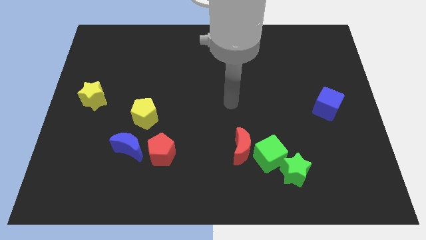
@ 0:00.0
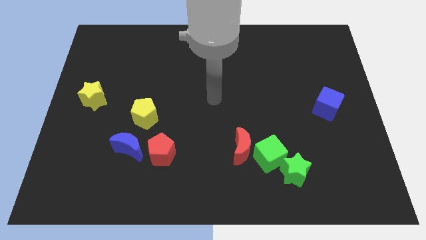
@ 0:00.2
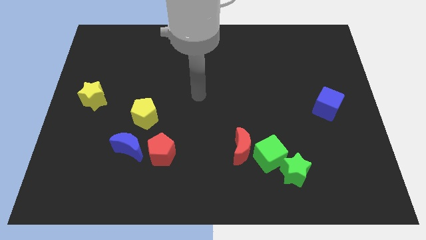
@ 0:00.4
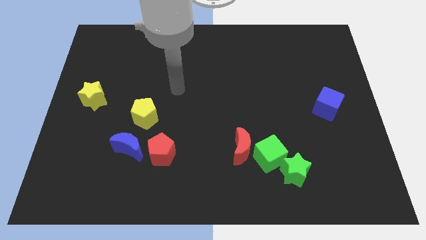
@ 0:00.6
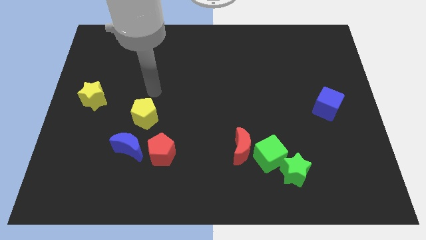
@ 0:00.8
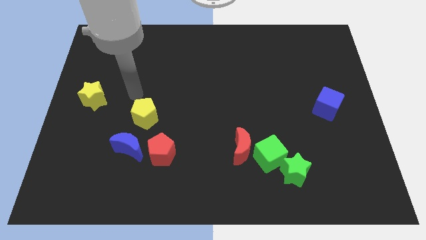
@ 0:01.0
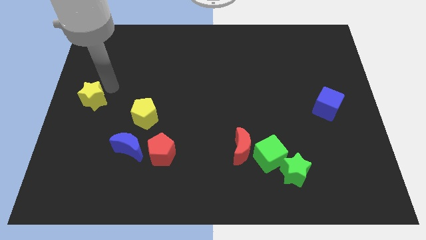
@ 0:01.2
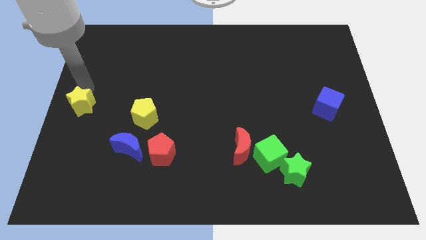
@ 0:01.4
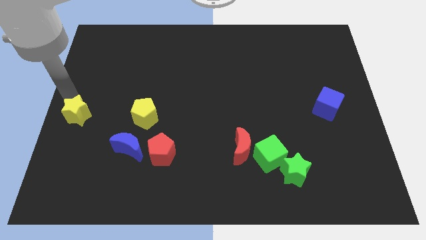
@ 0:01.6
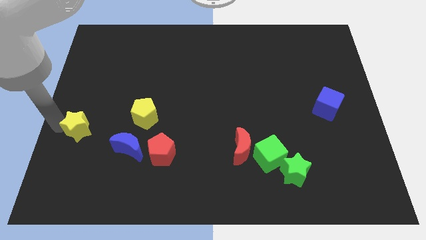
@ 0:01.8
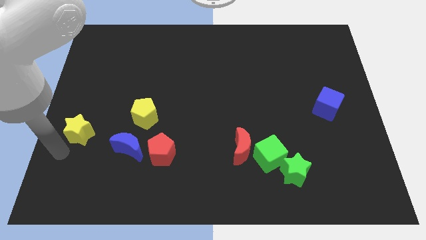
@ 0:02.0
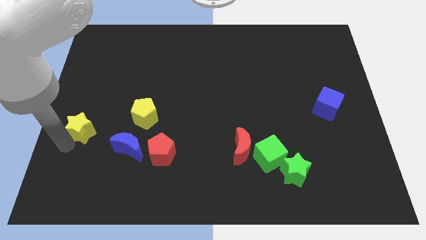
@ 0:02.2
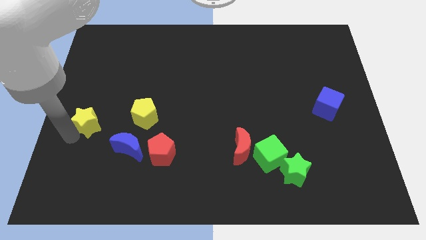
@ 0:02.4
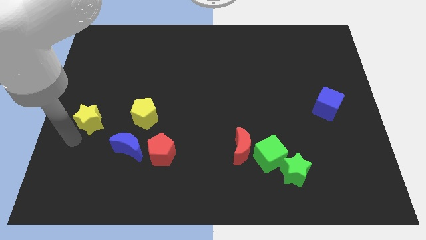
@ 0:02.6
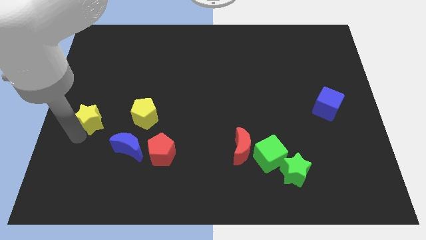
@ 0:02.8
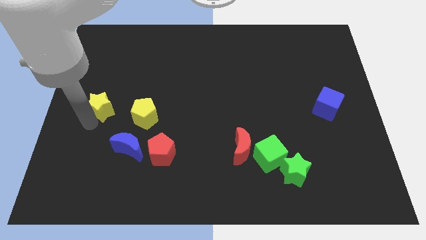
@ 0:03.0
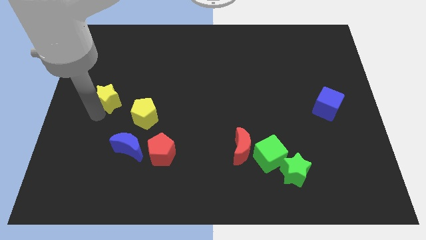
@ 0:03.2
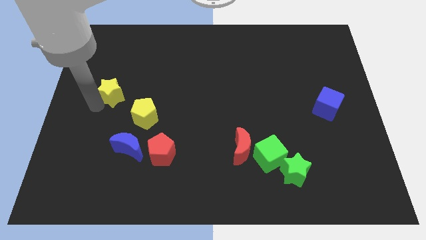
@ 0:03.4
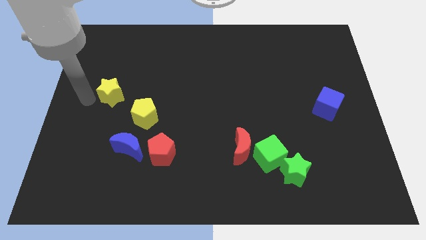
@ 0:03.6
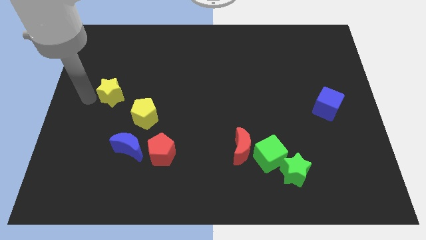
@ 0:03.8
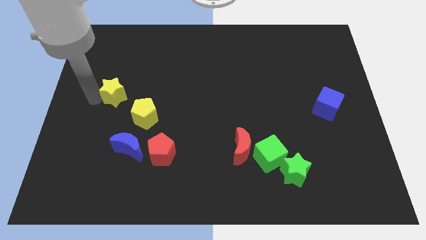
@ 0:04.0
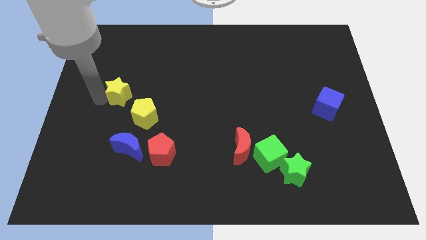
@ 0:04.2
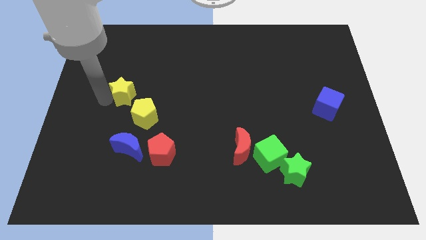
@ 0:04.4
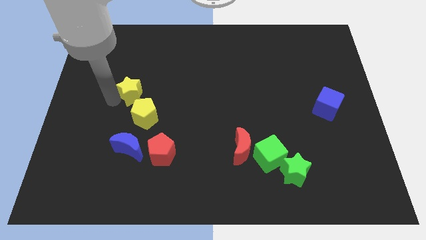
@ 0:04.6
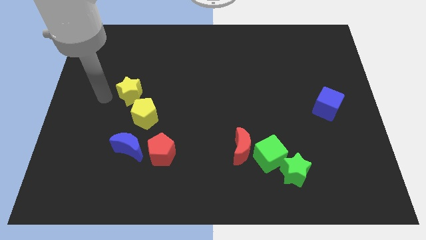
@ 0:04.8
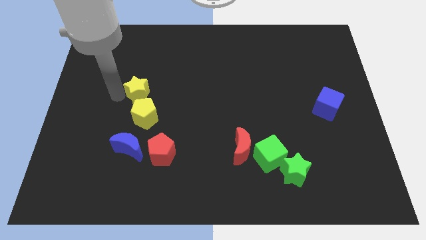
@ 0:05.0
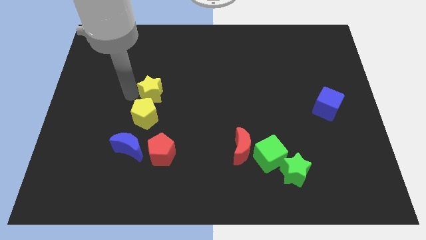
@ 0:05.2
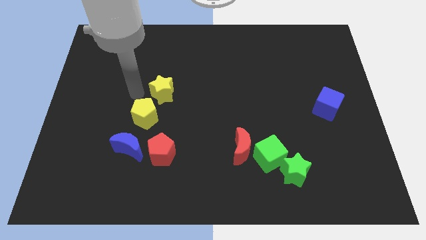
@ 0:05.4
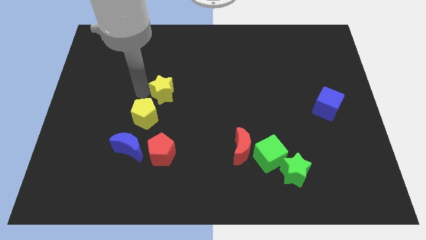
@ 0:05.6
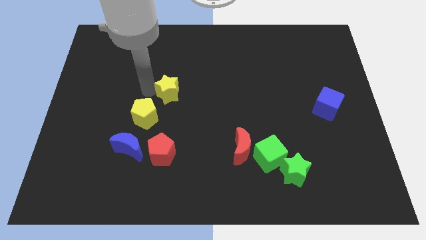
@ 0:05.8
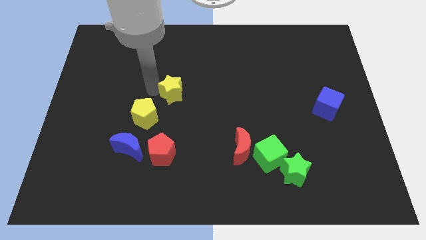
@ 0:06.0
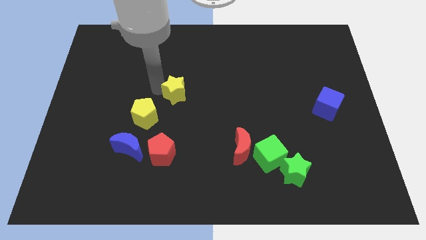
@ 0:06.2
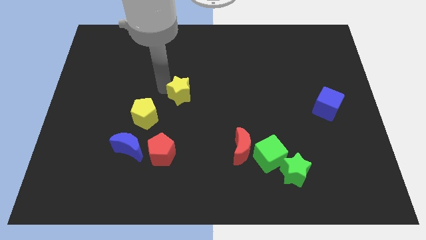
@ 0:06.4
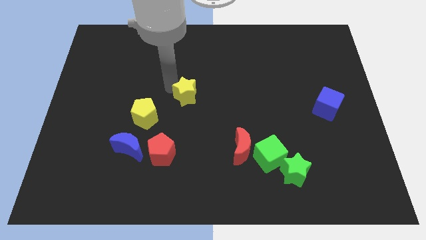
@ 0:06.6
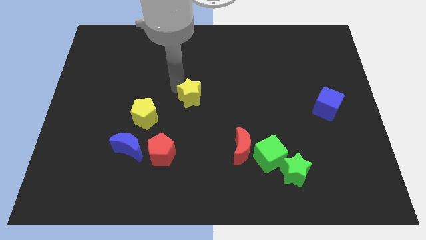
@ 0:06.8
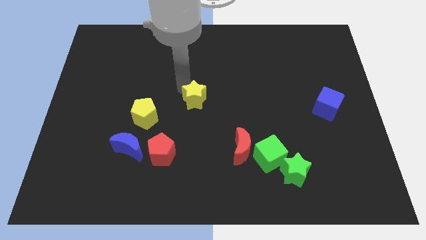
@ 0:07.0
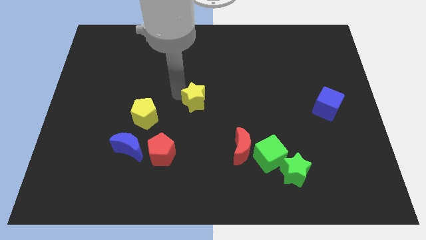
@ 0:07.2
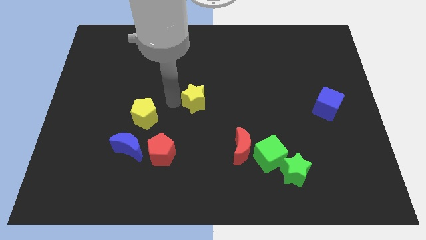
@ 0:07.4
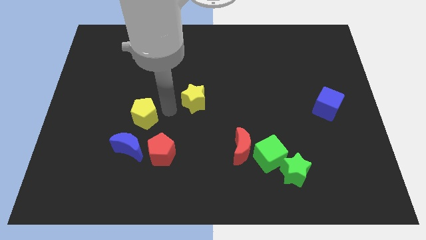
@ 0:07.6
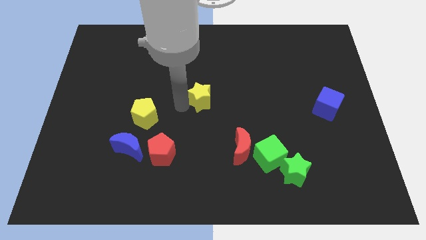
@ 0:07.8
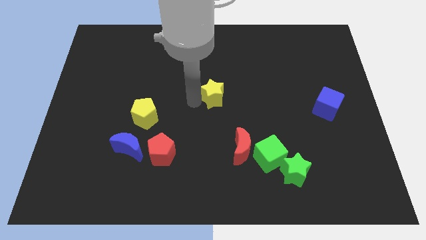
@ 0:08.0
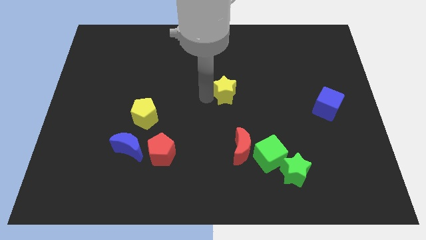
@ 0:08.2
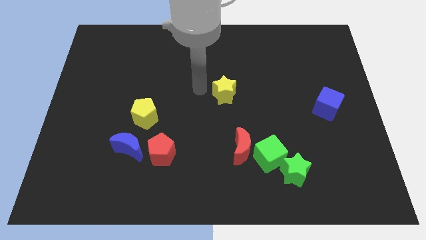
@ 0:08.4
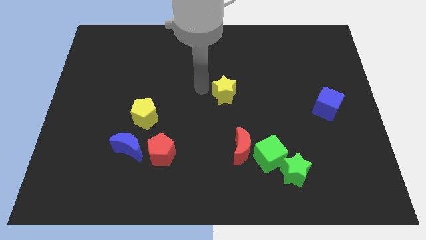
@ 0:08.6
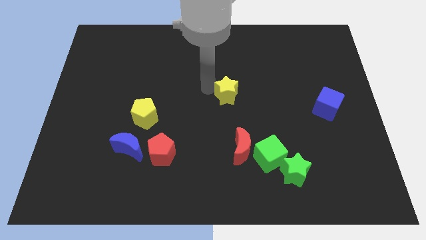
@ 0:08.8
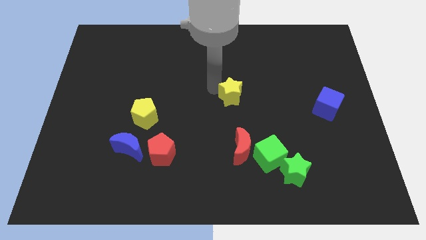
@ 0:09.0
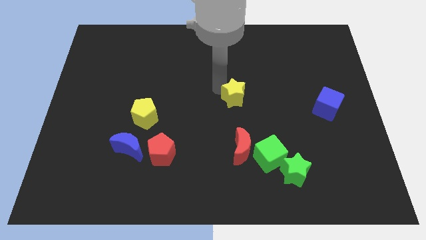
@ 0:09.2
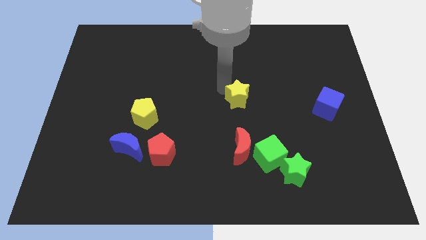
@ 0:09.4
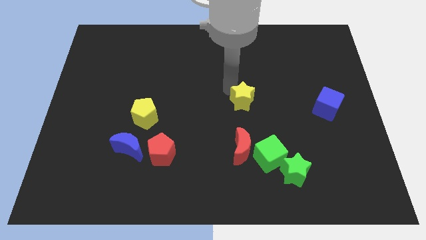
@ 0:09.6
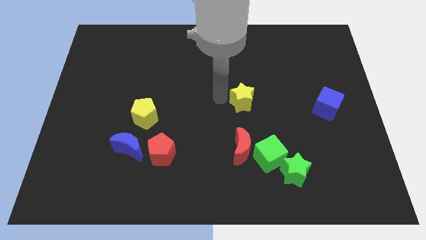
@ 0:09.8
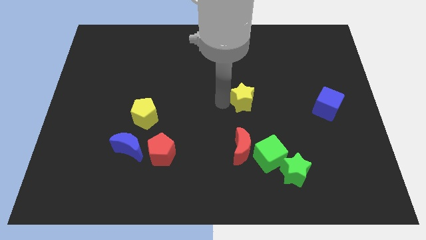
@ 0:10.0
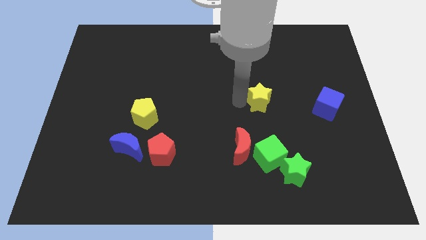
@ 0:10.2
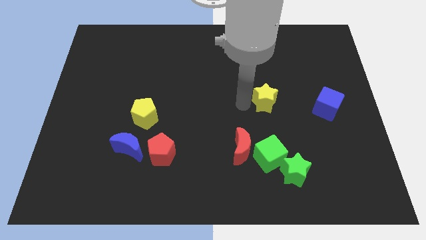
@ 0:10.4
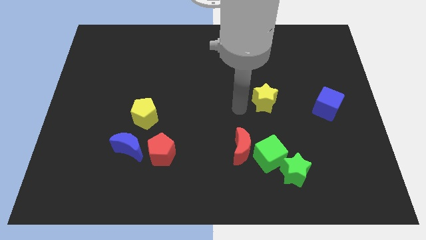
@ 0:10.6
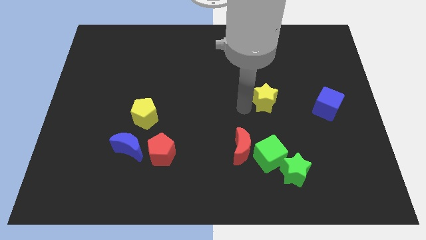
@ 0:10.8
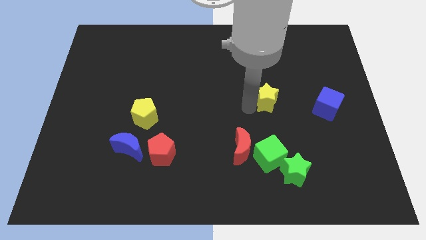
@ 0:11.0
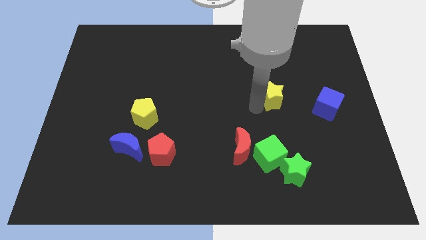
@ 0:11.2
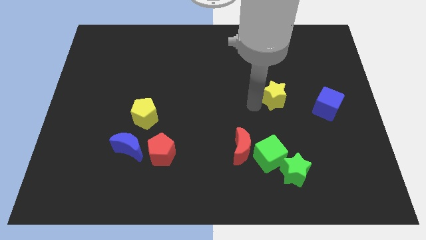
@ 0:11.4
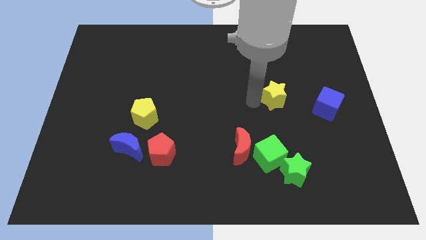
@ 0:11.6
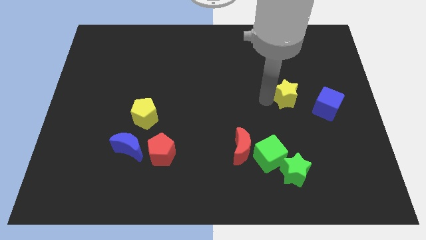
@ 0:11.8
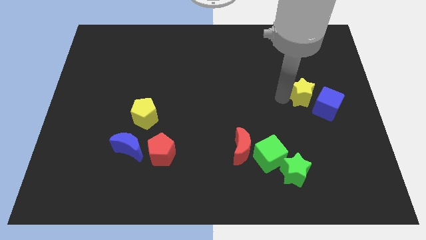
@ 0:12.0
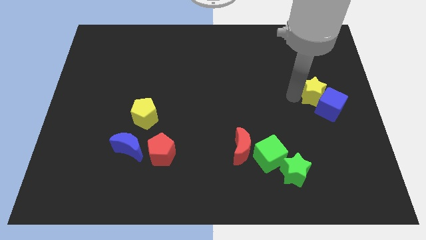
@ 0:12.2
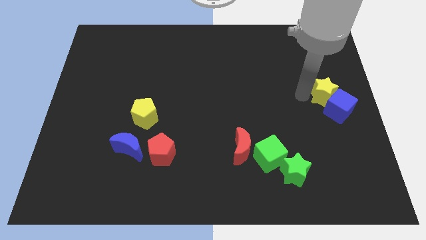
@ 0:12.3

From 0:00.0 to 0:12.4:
slide the yellow star to the right side

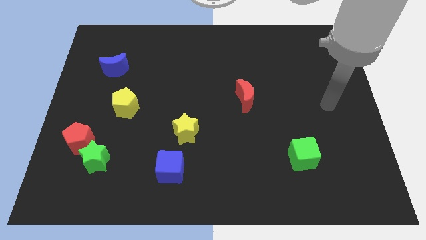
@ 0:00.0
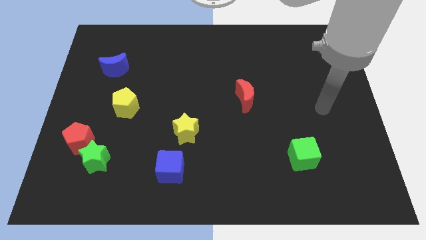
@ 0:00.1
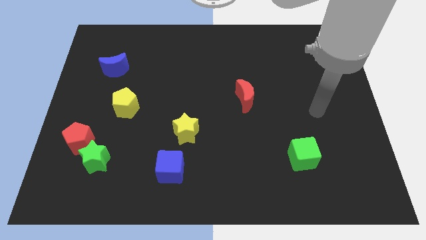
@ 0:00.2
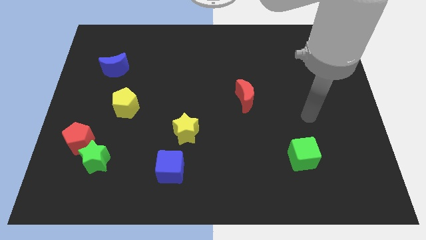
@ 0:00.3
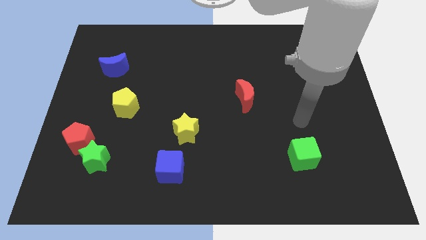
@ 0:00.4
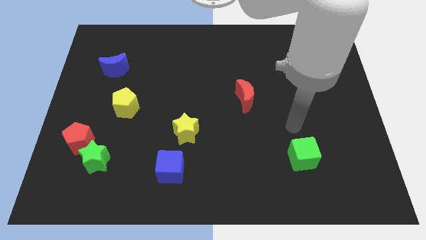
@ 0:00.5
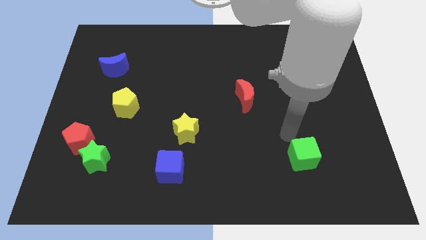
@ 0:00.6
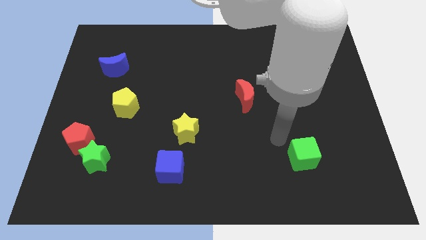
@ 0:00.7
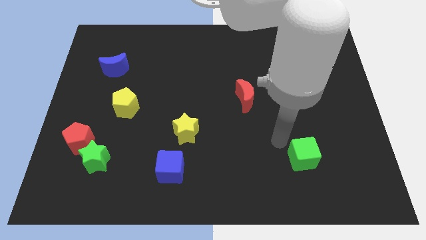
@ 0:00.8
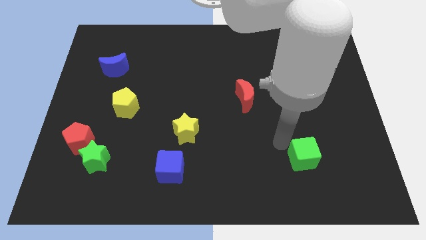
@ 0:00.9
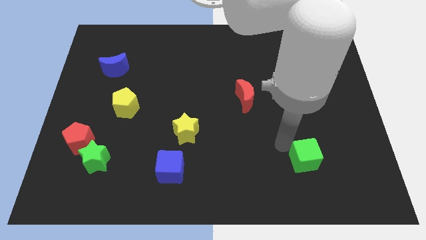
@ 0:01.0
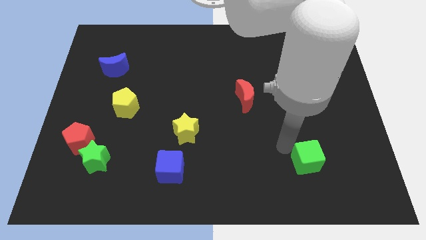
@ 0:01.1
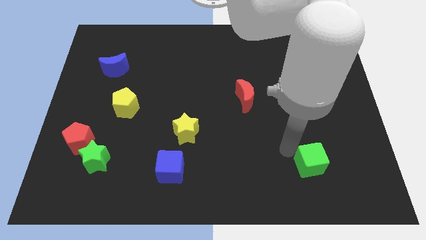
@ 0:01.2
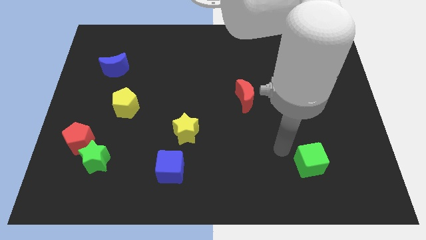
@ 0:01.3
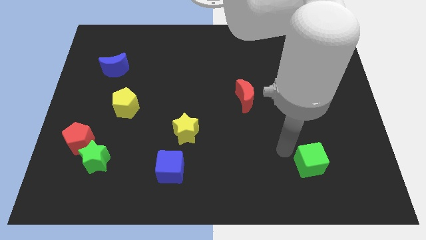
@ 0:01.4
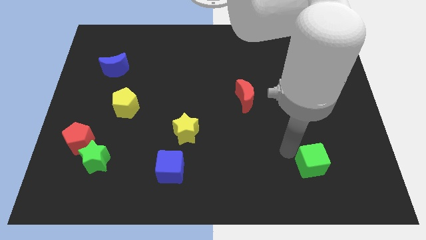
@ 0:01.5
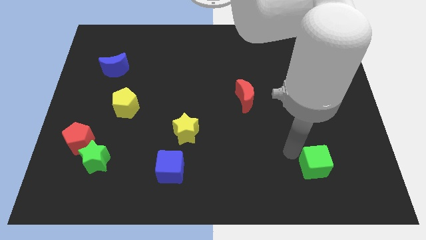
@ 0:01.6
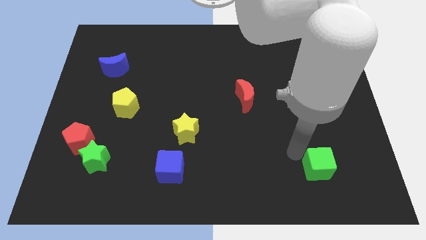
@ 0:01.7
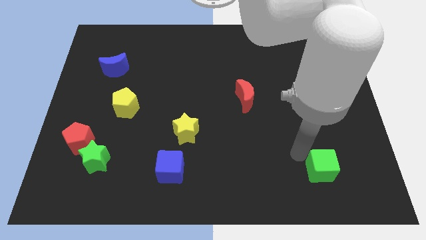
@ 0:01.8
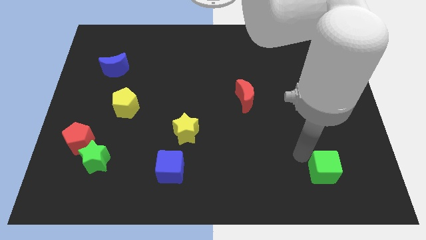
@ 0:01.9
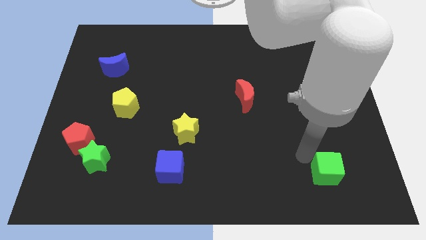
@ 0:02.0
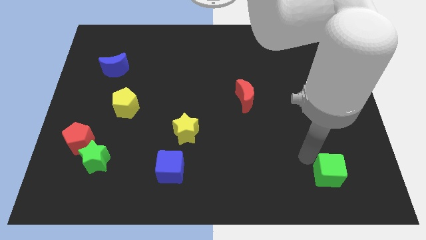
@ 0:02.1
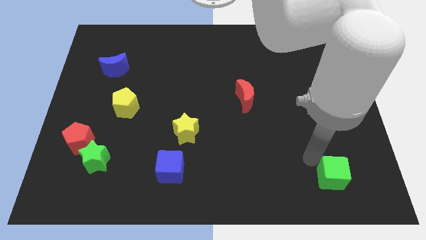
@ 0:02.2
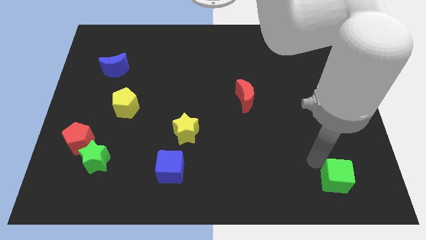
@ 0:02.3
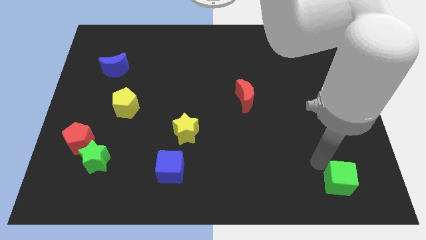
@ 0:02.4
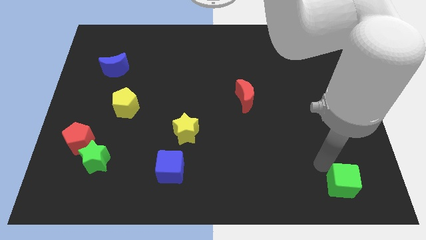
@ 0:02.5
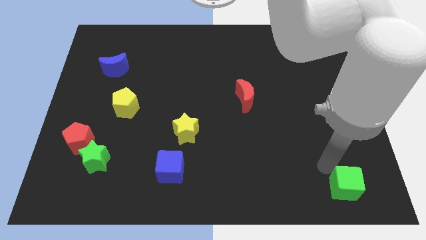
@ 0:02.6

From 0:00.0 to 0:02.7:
put the green cube to the bottom right
